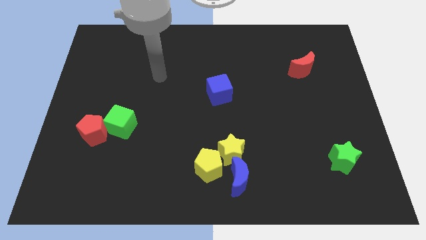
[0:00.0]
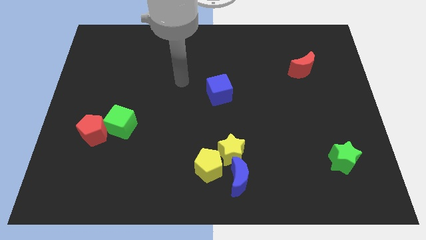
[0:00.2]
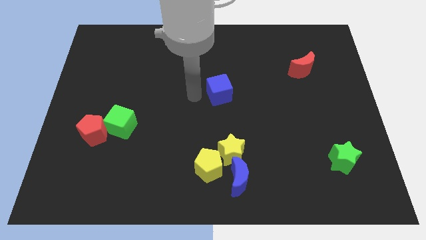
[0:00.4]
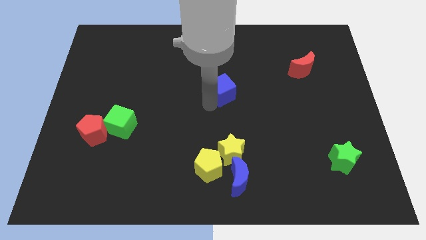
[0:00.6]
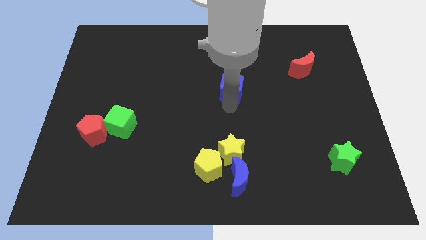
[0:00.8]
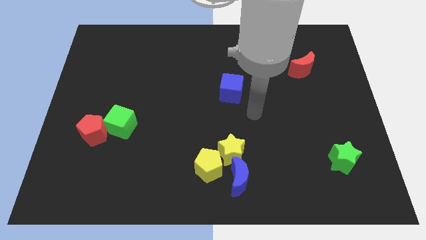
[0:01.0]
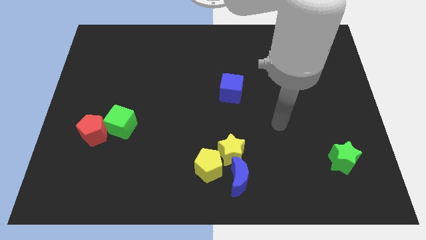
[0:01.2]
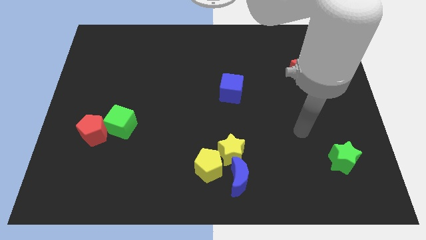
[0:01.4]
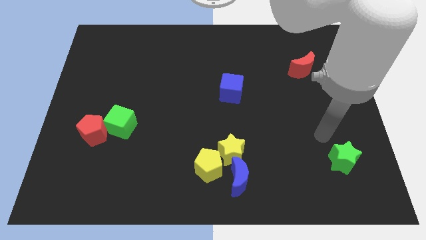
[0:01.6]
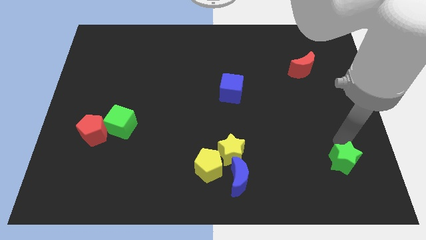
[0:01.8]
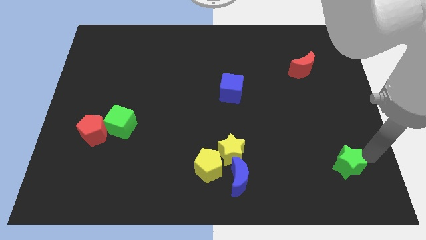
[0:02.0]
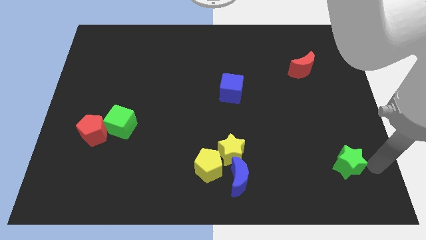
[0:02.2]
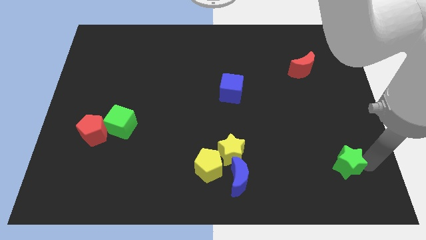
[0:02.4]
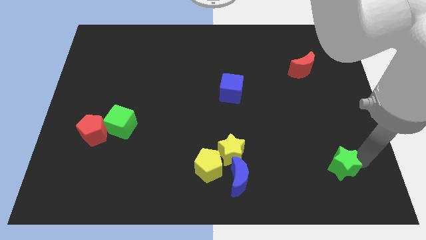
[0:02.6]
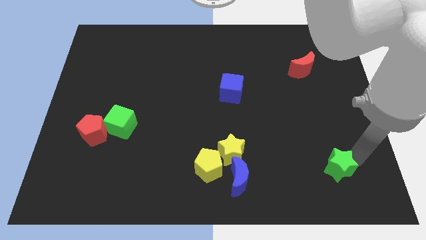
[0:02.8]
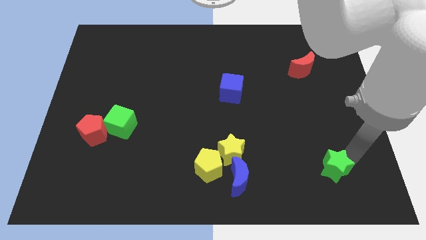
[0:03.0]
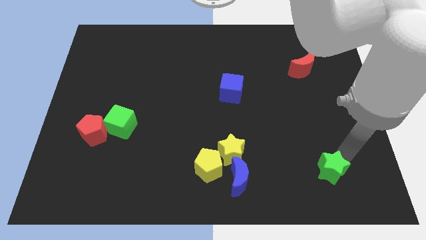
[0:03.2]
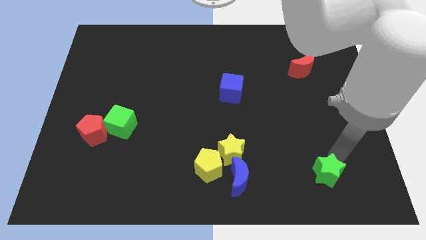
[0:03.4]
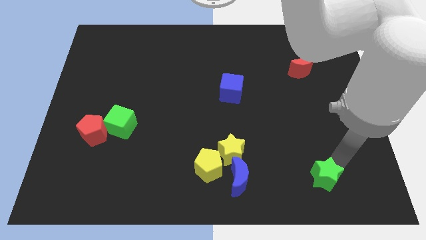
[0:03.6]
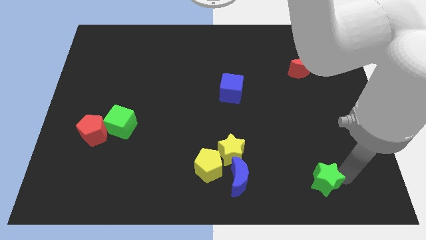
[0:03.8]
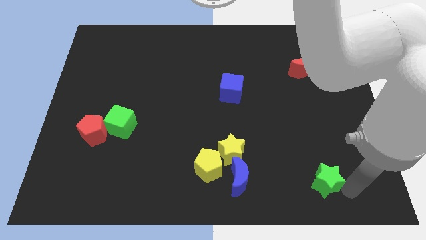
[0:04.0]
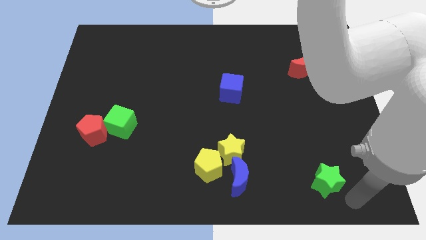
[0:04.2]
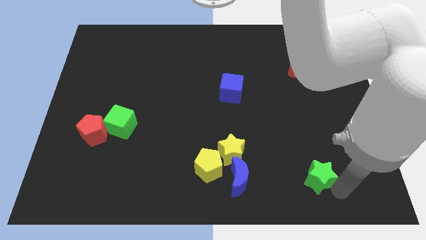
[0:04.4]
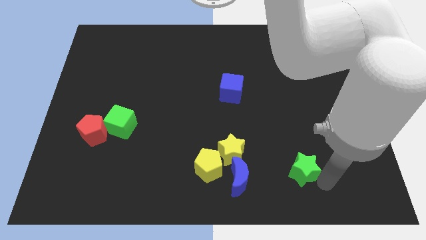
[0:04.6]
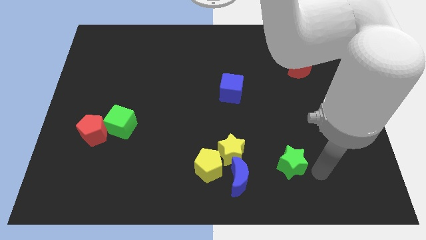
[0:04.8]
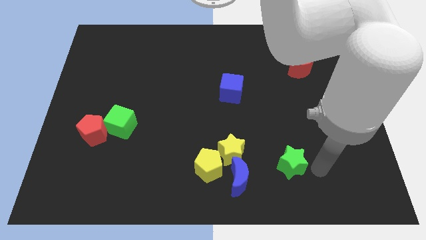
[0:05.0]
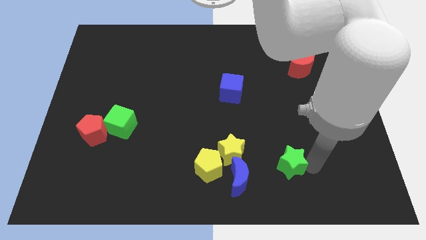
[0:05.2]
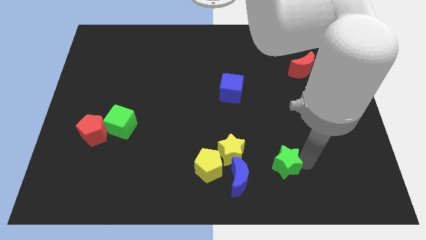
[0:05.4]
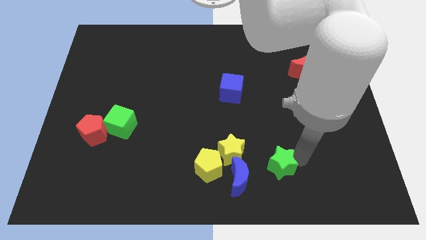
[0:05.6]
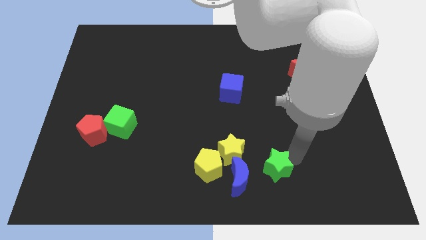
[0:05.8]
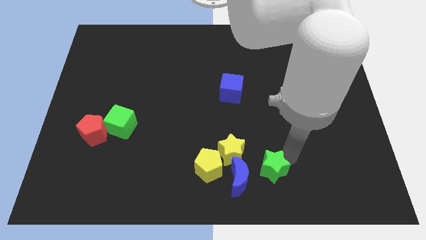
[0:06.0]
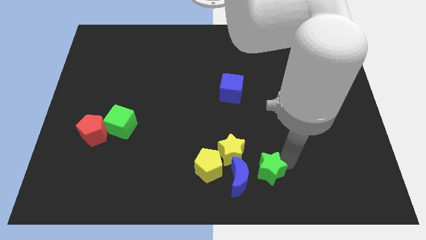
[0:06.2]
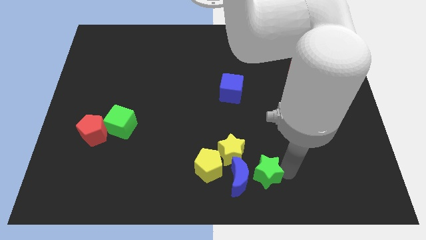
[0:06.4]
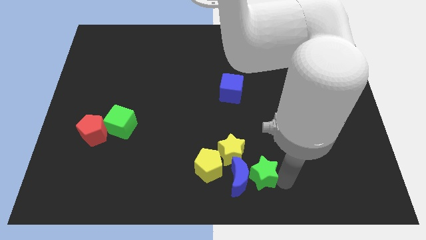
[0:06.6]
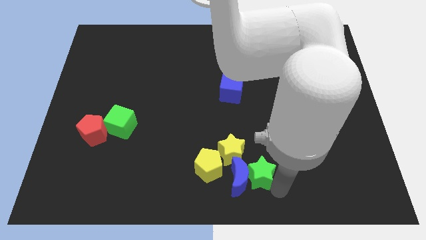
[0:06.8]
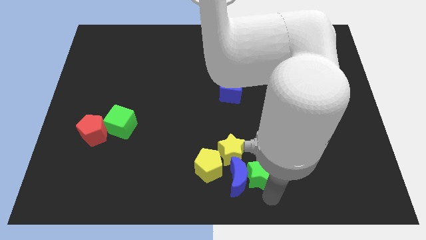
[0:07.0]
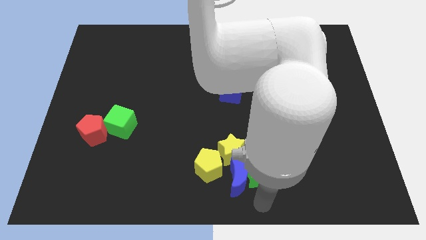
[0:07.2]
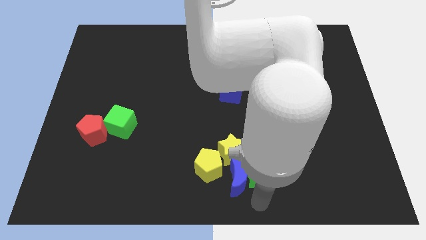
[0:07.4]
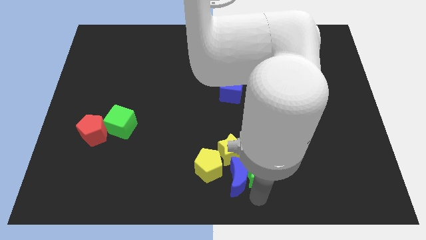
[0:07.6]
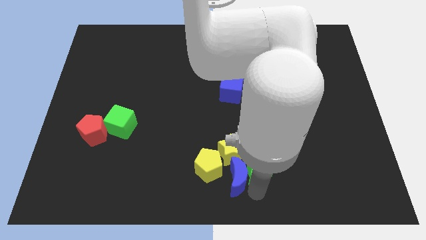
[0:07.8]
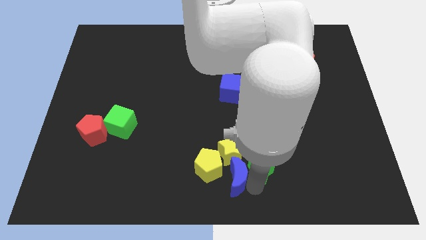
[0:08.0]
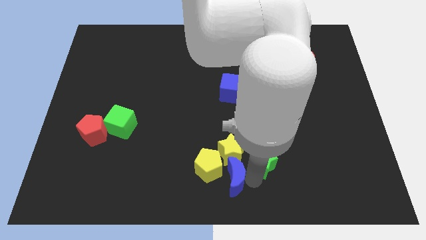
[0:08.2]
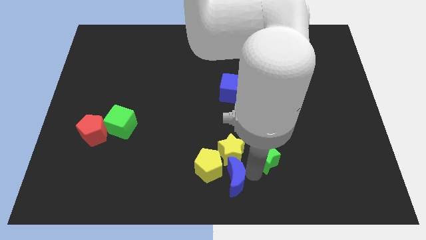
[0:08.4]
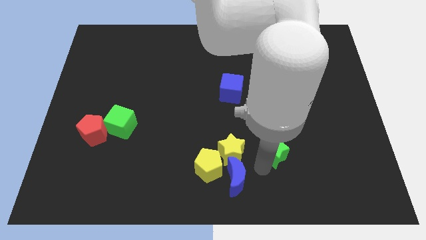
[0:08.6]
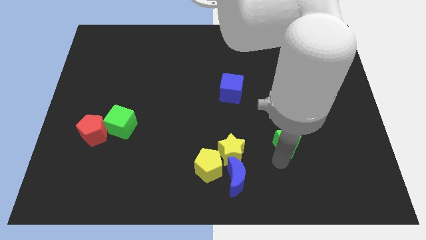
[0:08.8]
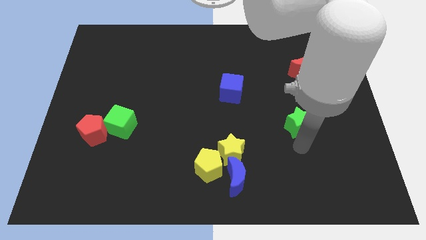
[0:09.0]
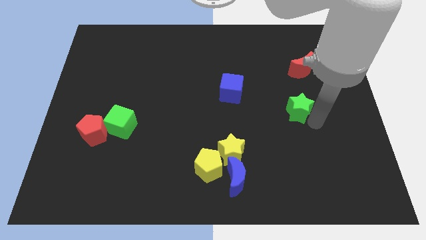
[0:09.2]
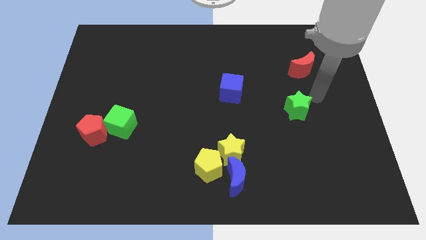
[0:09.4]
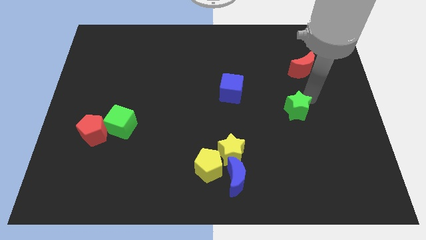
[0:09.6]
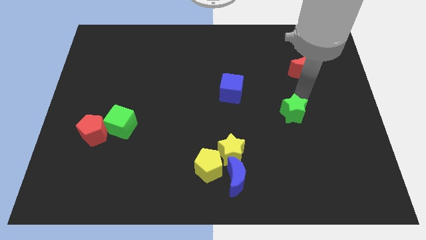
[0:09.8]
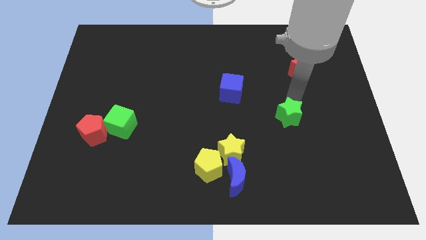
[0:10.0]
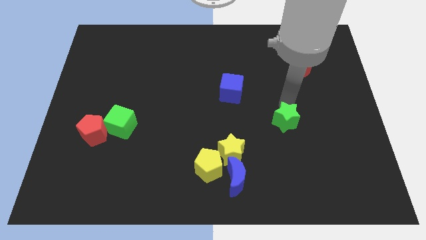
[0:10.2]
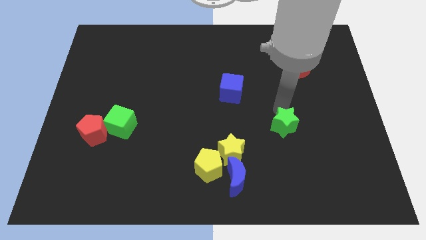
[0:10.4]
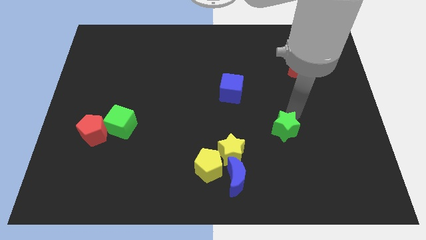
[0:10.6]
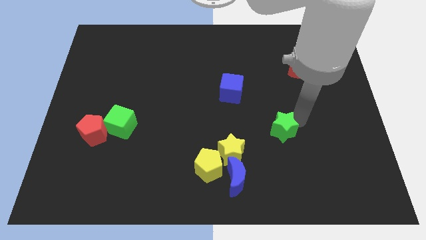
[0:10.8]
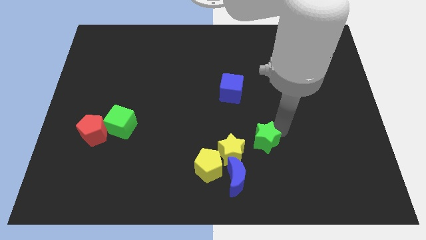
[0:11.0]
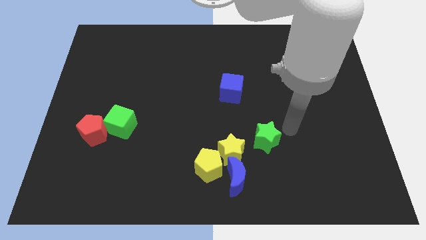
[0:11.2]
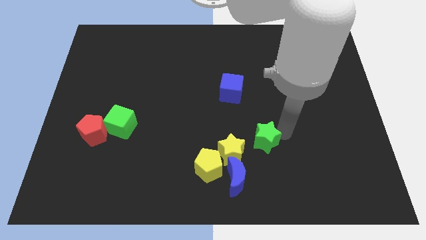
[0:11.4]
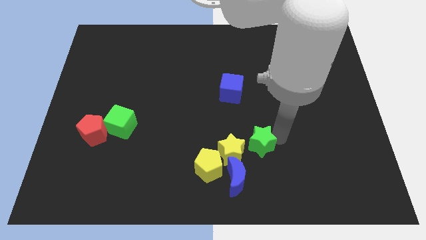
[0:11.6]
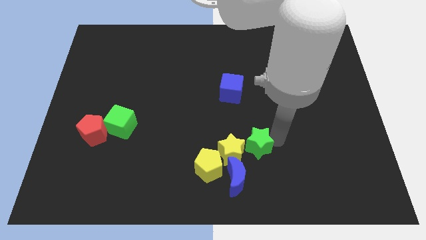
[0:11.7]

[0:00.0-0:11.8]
push the green star to the yellow star

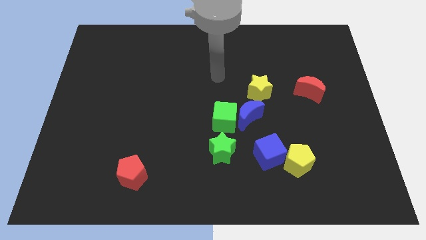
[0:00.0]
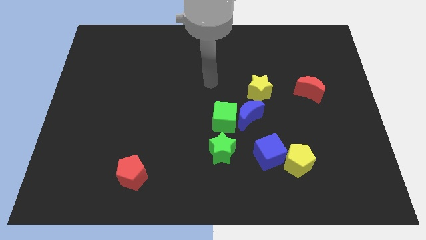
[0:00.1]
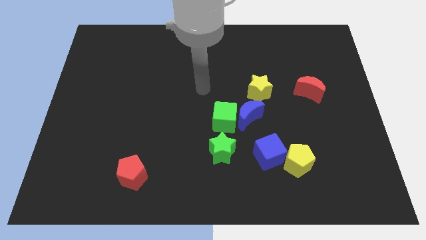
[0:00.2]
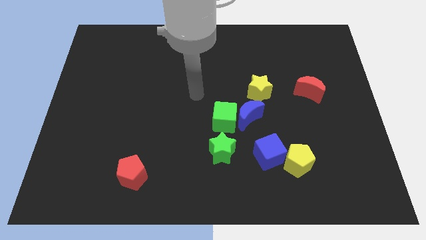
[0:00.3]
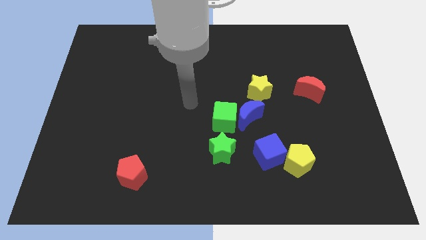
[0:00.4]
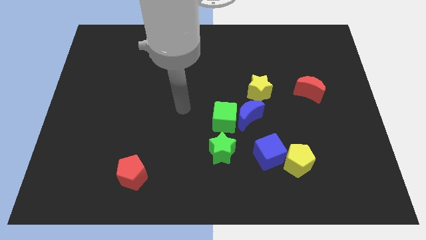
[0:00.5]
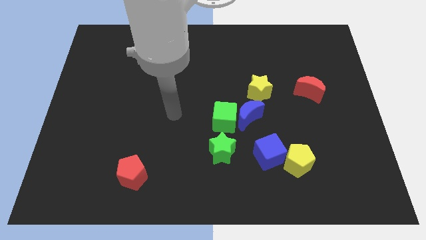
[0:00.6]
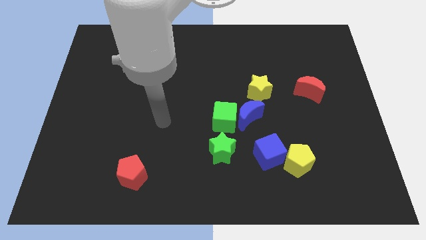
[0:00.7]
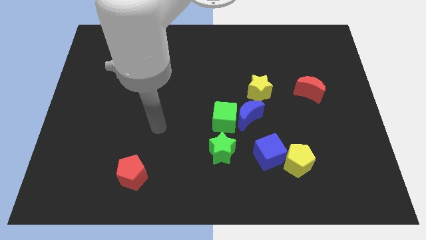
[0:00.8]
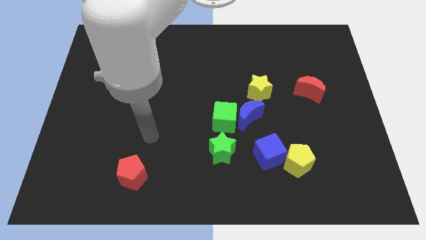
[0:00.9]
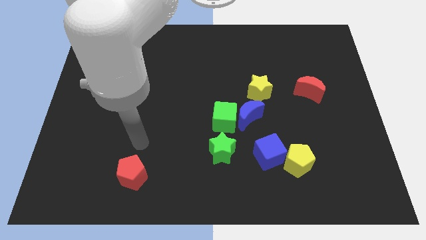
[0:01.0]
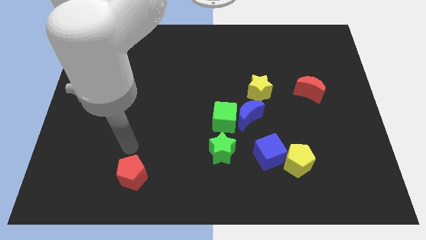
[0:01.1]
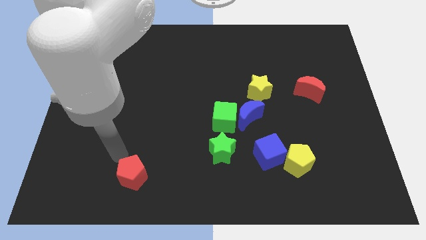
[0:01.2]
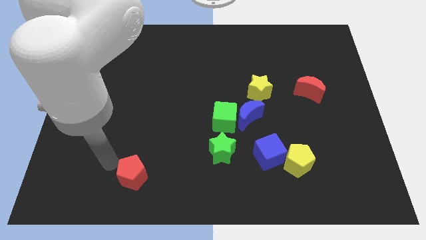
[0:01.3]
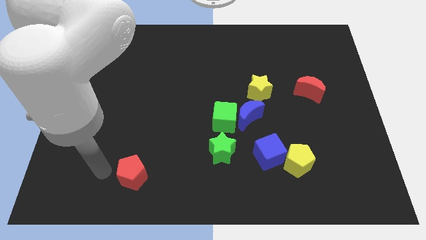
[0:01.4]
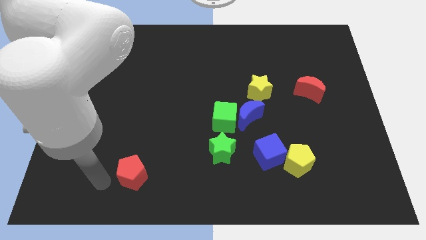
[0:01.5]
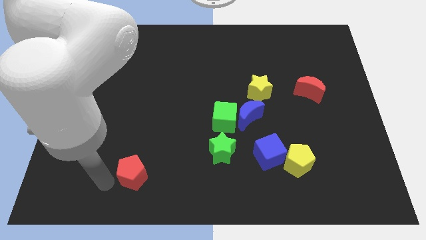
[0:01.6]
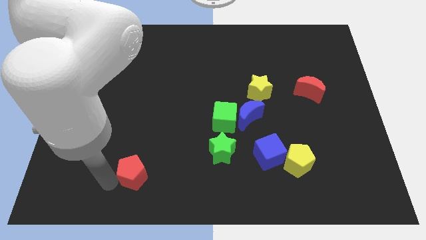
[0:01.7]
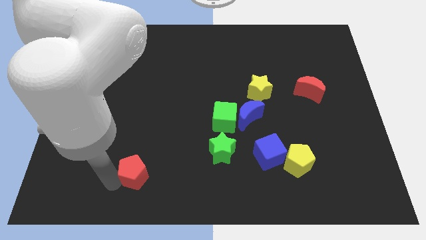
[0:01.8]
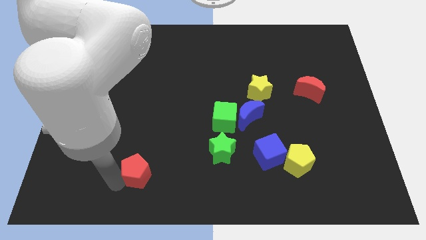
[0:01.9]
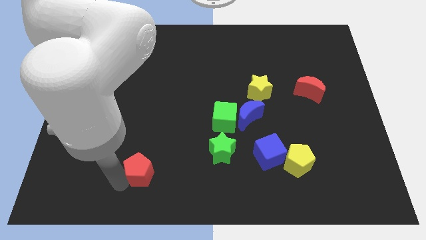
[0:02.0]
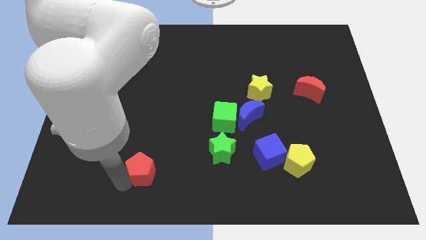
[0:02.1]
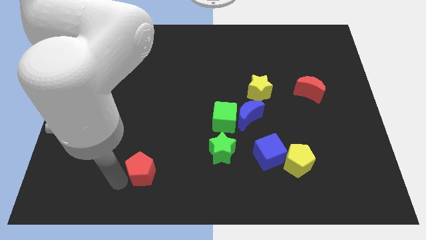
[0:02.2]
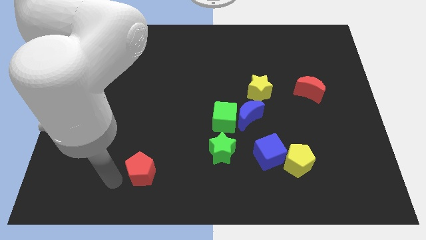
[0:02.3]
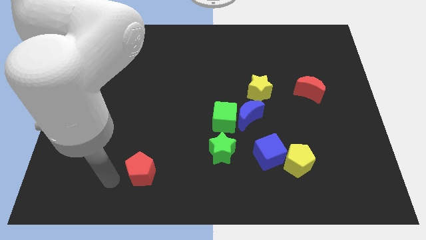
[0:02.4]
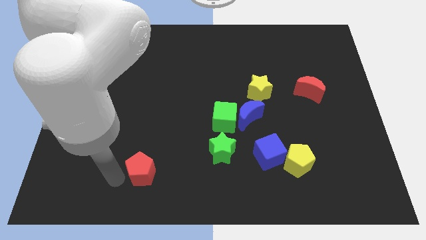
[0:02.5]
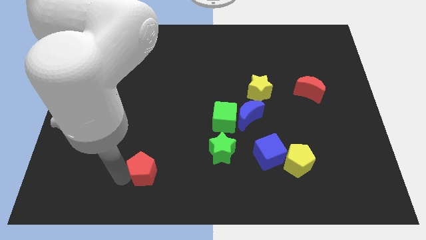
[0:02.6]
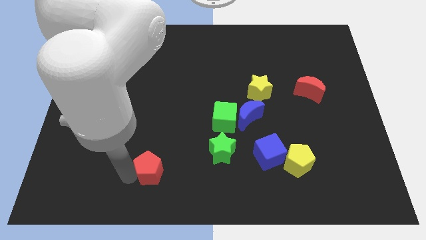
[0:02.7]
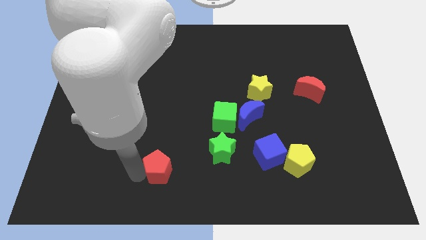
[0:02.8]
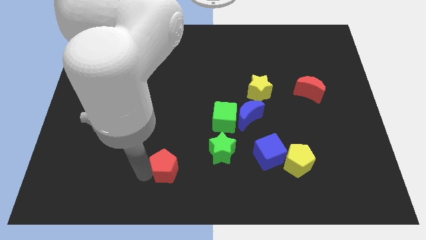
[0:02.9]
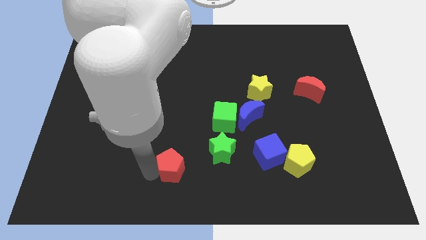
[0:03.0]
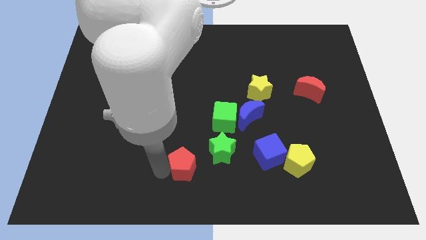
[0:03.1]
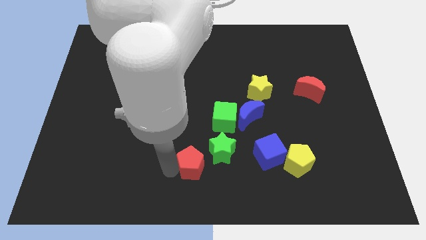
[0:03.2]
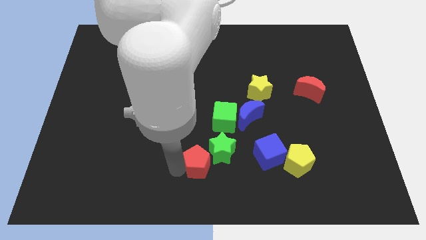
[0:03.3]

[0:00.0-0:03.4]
push the red pentagon towards the green star
